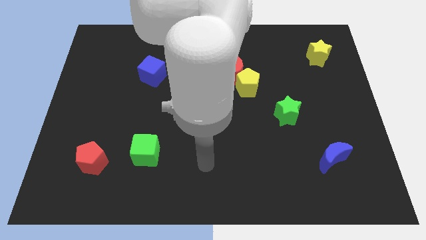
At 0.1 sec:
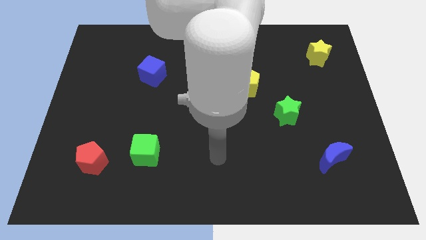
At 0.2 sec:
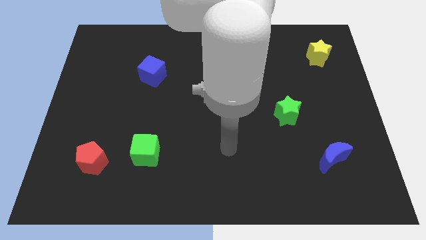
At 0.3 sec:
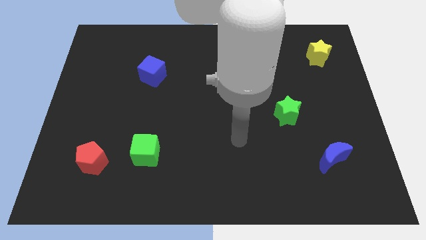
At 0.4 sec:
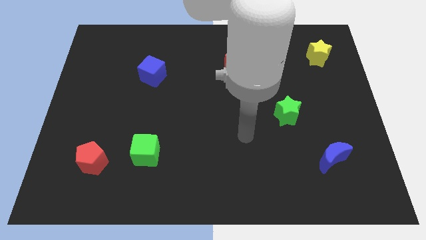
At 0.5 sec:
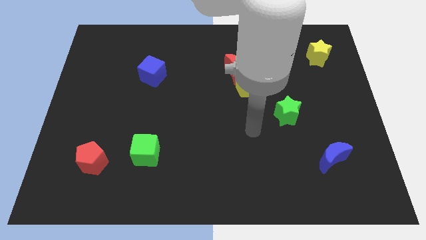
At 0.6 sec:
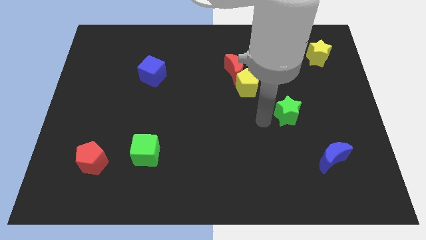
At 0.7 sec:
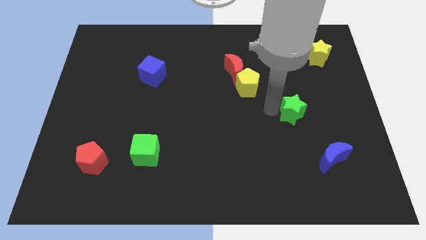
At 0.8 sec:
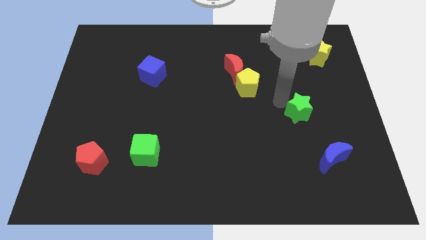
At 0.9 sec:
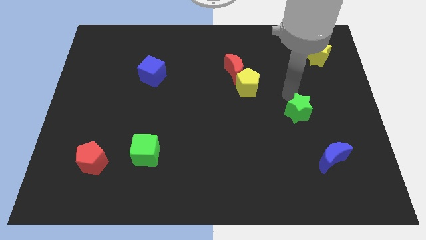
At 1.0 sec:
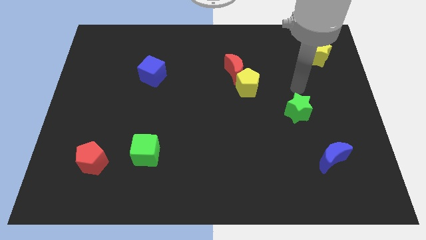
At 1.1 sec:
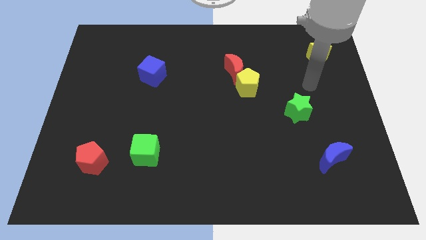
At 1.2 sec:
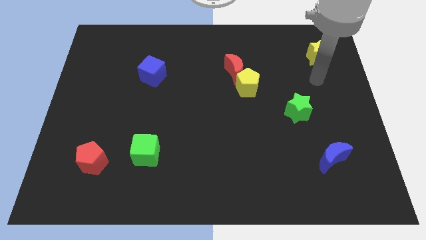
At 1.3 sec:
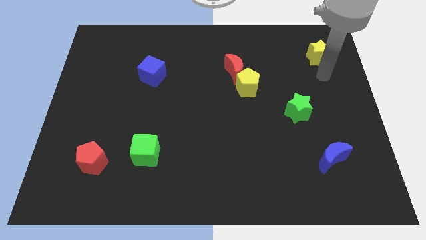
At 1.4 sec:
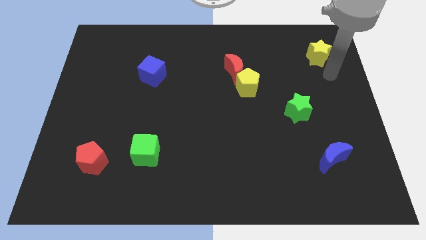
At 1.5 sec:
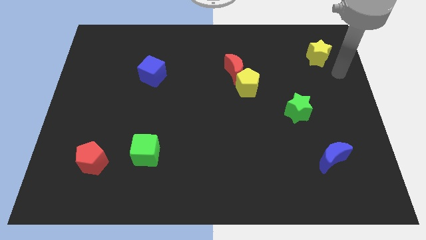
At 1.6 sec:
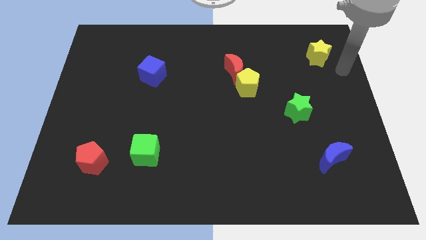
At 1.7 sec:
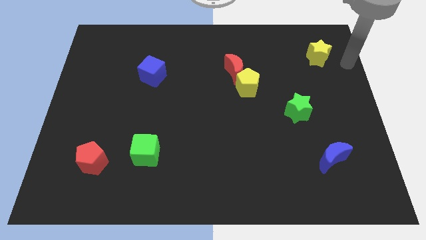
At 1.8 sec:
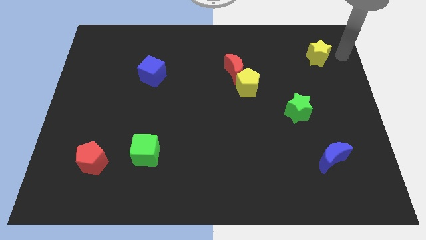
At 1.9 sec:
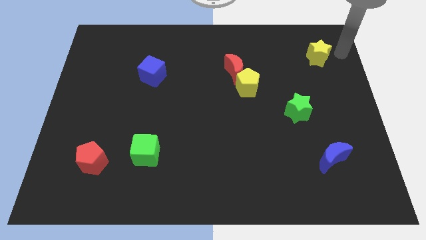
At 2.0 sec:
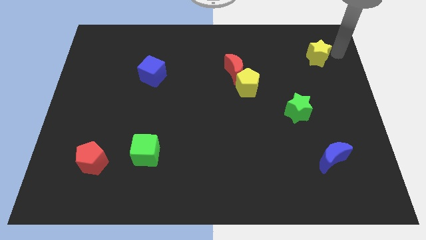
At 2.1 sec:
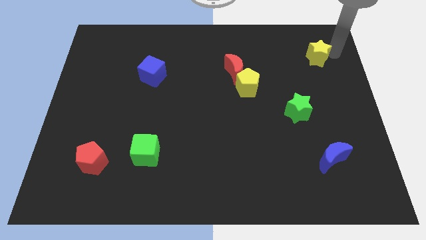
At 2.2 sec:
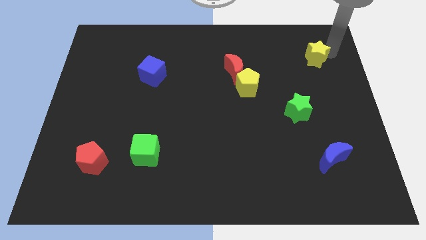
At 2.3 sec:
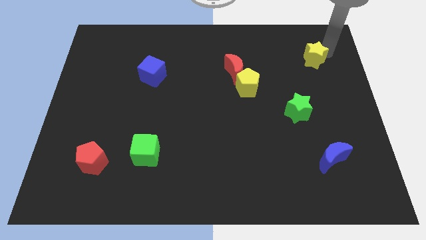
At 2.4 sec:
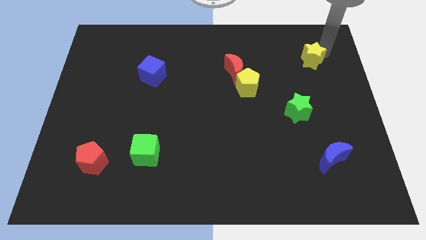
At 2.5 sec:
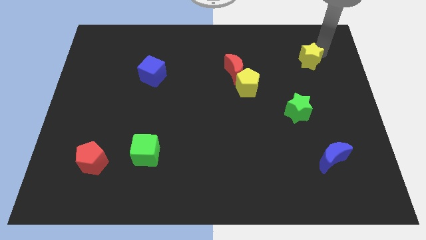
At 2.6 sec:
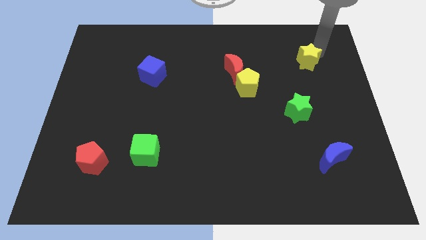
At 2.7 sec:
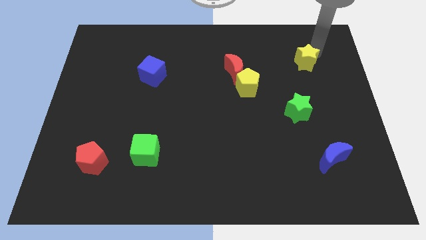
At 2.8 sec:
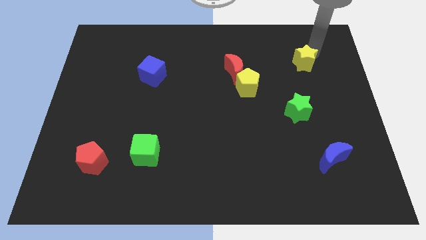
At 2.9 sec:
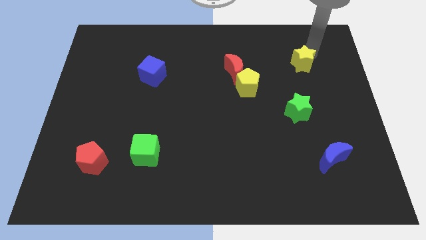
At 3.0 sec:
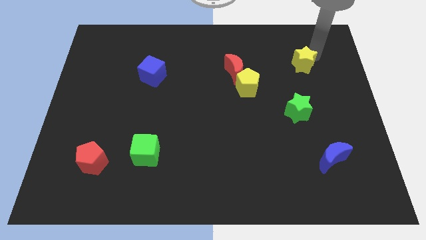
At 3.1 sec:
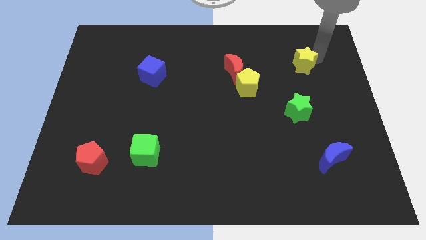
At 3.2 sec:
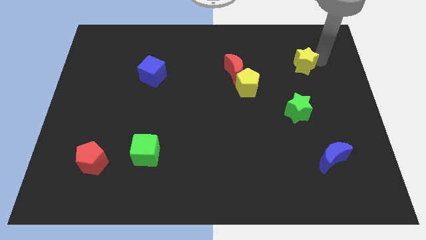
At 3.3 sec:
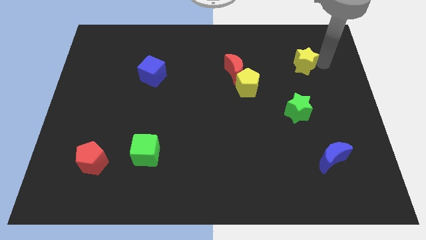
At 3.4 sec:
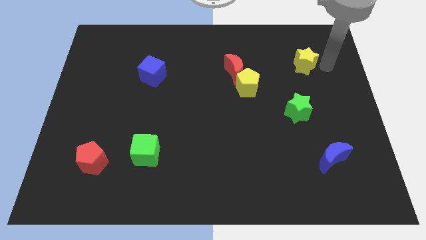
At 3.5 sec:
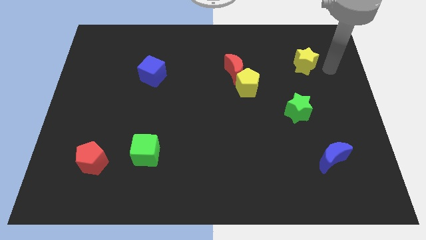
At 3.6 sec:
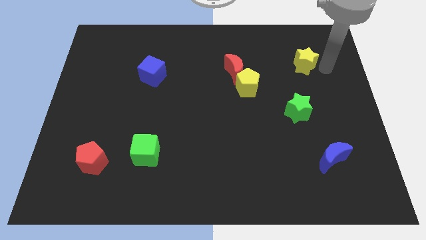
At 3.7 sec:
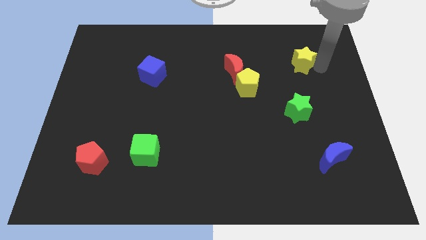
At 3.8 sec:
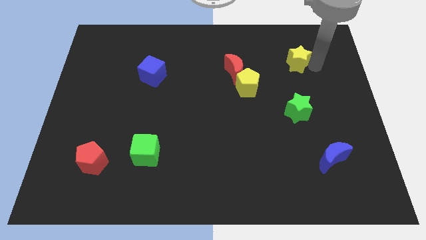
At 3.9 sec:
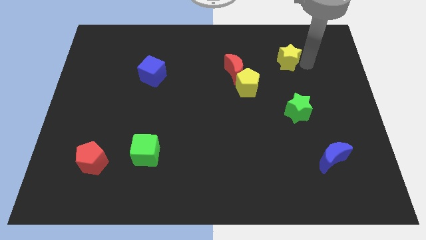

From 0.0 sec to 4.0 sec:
move the yellow star left a little

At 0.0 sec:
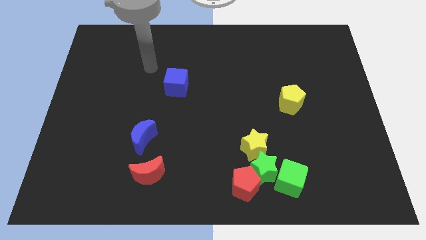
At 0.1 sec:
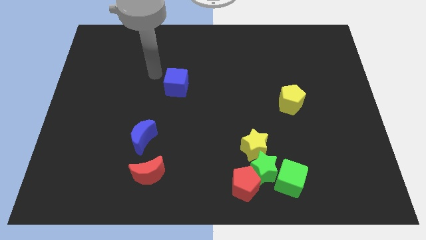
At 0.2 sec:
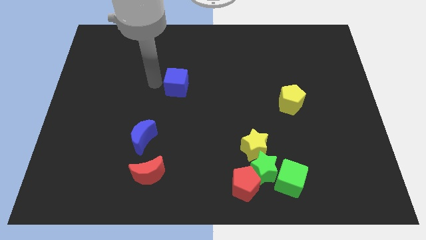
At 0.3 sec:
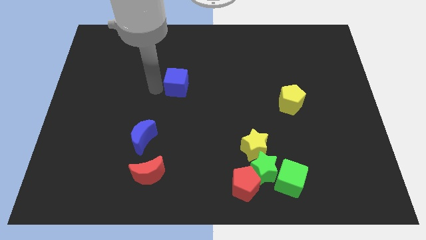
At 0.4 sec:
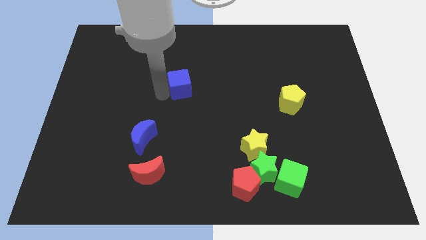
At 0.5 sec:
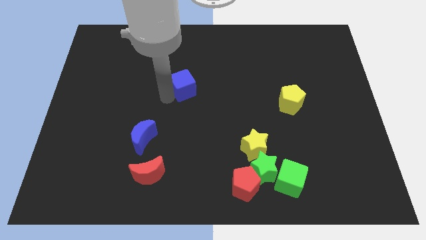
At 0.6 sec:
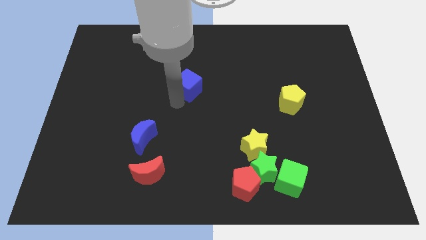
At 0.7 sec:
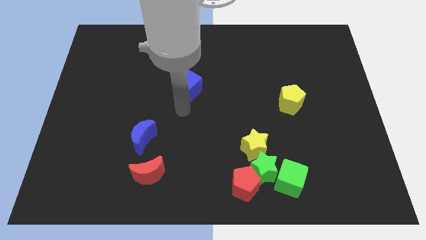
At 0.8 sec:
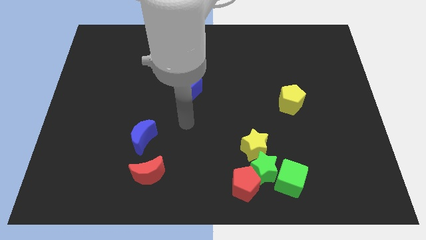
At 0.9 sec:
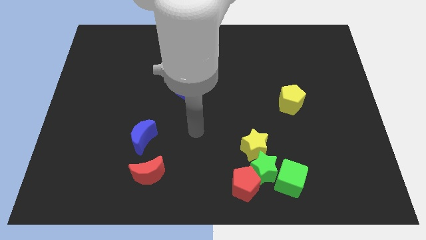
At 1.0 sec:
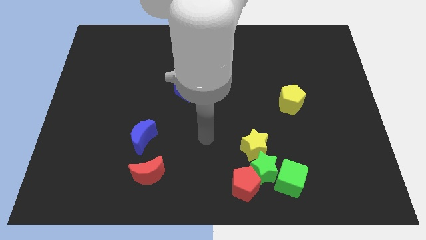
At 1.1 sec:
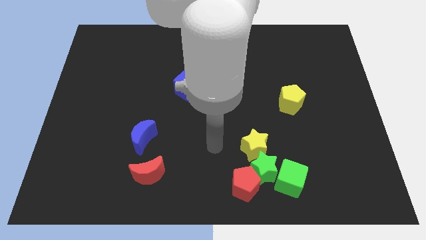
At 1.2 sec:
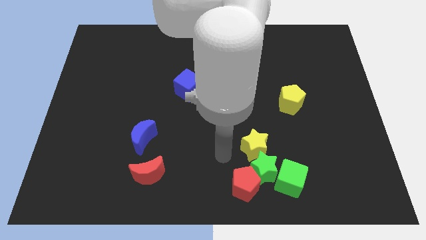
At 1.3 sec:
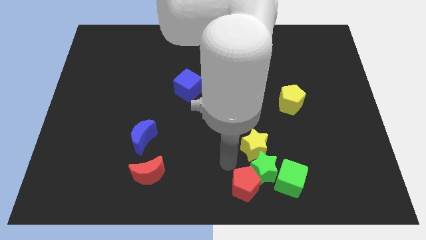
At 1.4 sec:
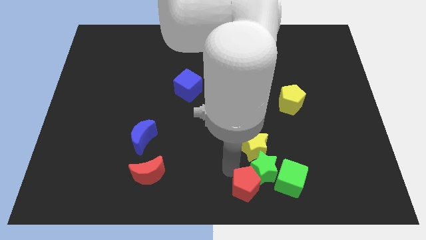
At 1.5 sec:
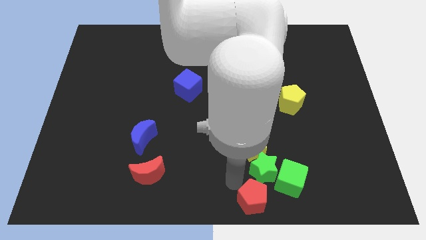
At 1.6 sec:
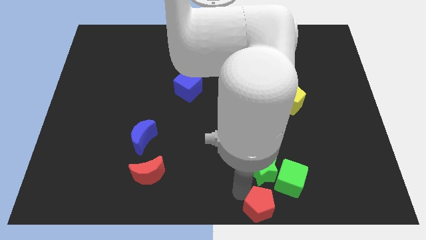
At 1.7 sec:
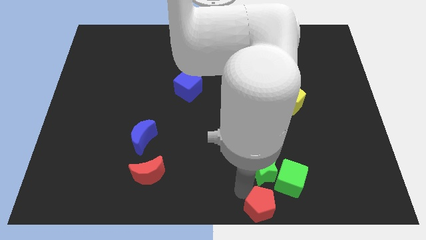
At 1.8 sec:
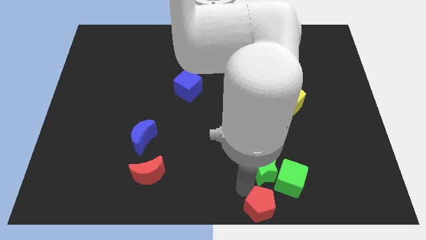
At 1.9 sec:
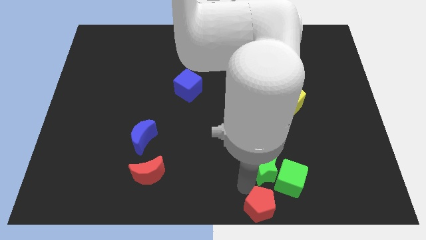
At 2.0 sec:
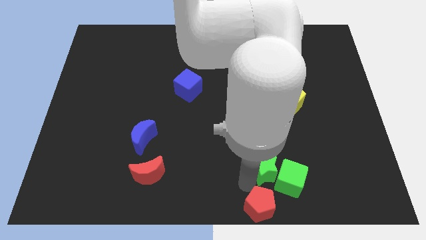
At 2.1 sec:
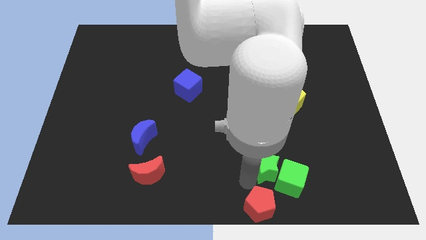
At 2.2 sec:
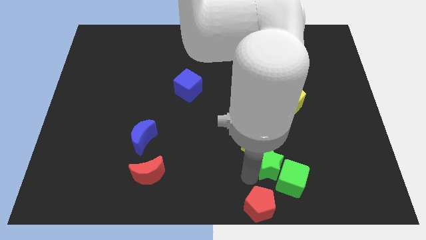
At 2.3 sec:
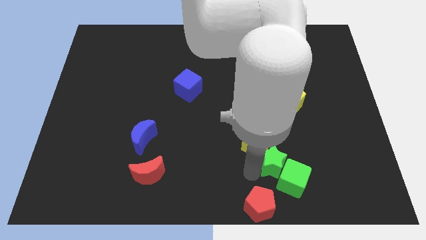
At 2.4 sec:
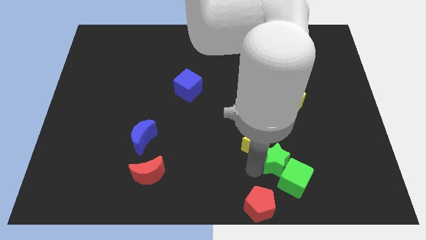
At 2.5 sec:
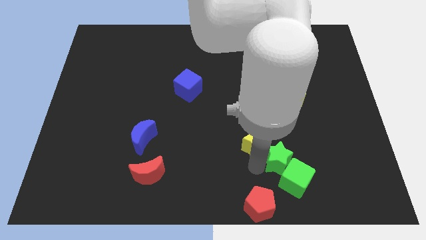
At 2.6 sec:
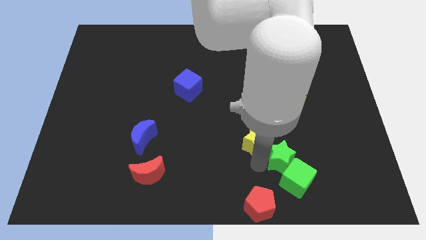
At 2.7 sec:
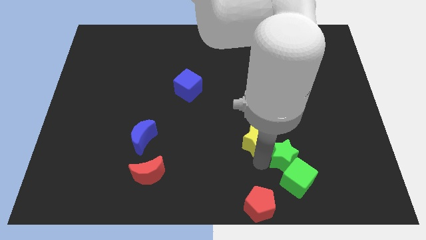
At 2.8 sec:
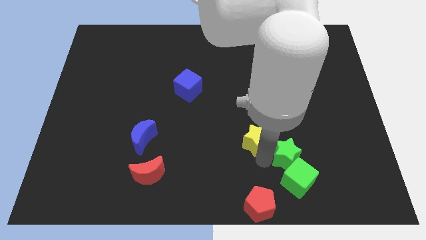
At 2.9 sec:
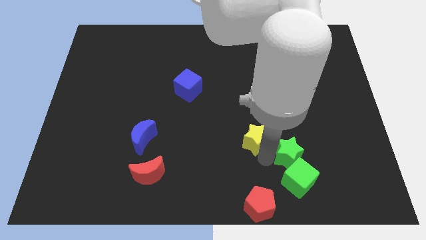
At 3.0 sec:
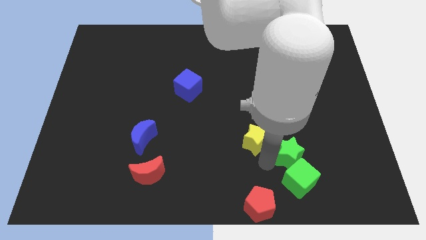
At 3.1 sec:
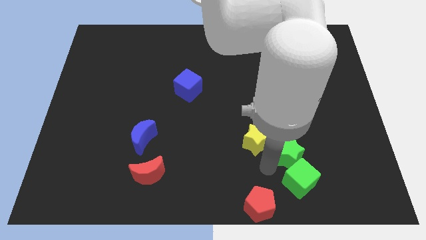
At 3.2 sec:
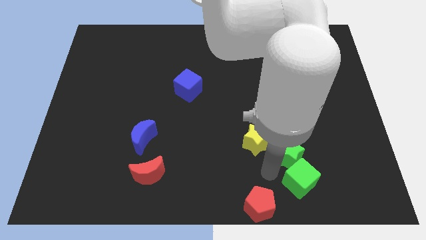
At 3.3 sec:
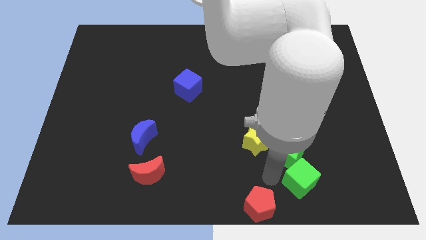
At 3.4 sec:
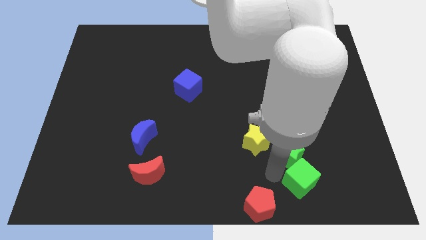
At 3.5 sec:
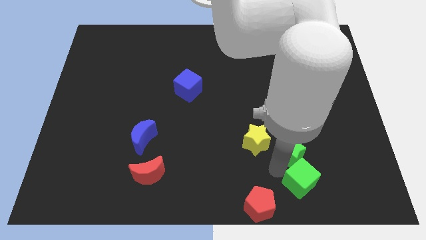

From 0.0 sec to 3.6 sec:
move the green star slightly upwards and then to the right

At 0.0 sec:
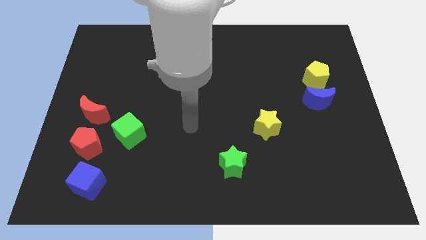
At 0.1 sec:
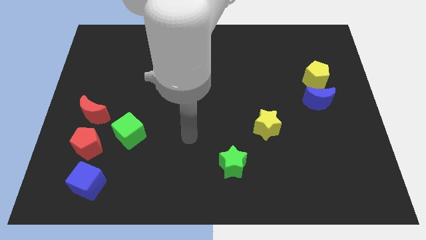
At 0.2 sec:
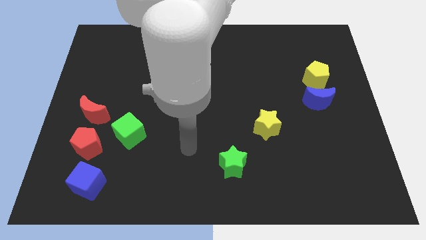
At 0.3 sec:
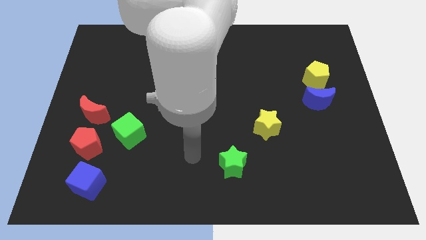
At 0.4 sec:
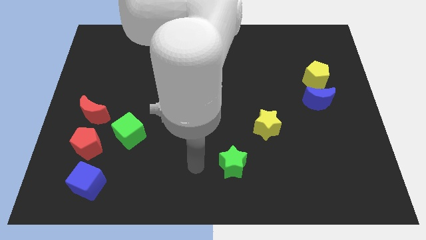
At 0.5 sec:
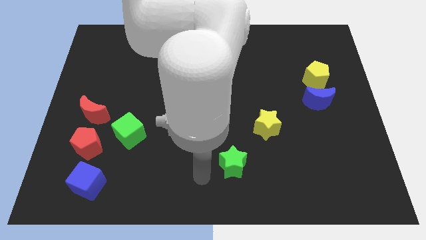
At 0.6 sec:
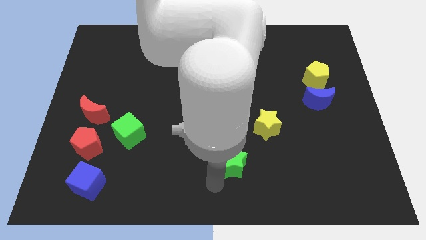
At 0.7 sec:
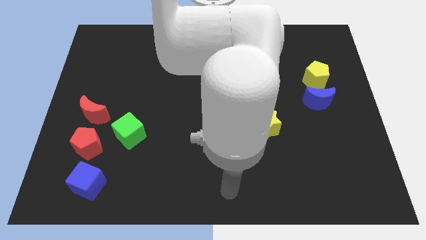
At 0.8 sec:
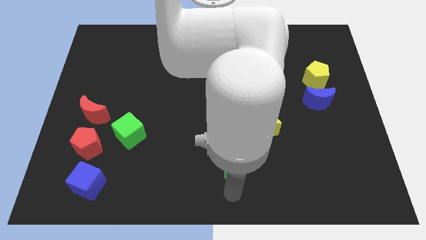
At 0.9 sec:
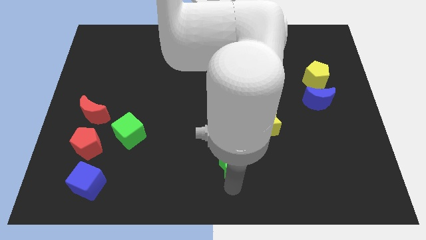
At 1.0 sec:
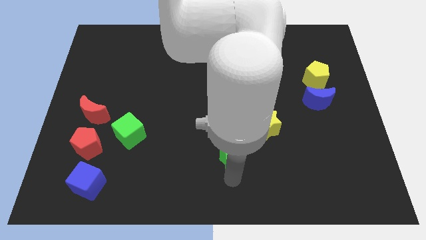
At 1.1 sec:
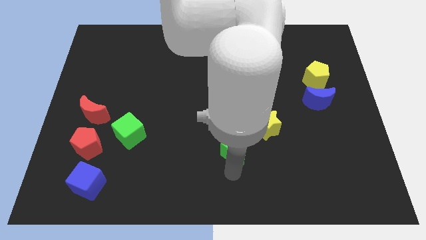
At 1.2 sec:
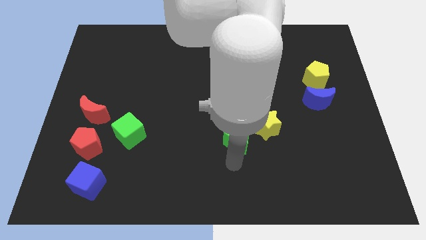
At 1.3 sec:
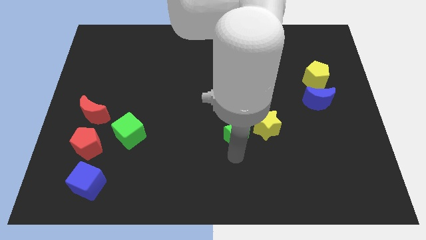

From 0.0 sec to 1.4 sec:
slide the green star a little upwards
